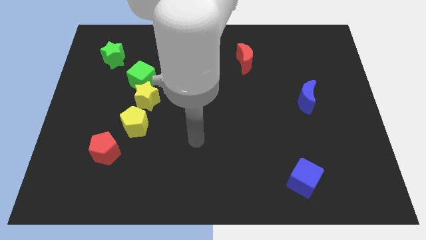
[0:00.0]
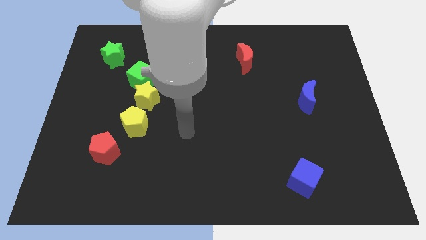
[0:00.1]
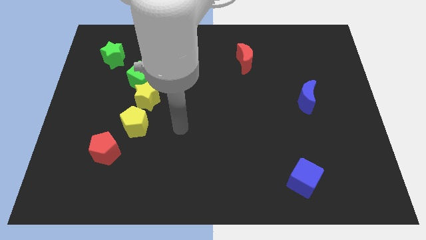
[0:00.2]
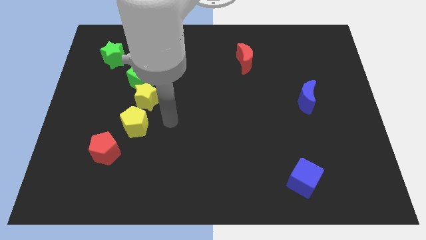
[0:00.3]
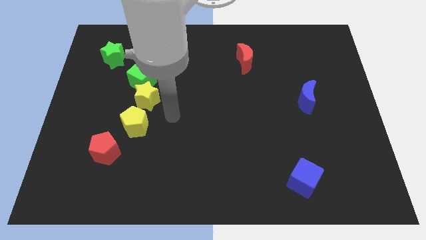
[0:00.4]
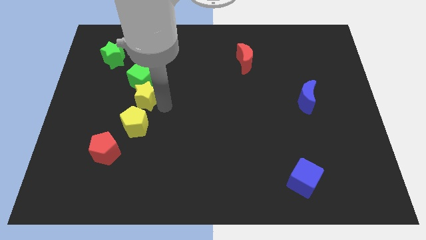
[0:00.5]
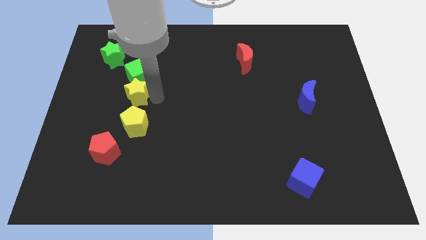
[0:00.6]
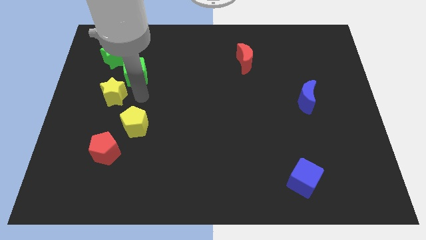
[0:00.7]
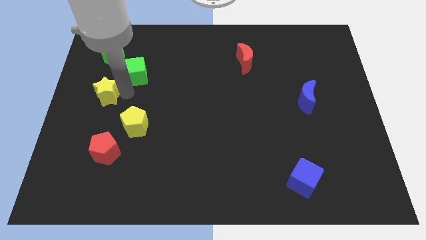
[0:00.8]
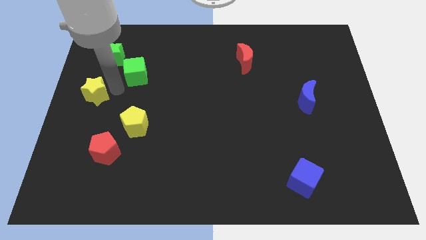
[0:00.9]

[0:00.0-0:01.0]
move the green cube away from the yellow star

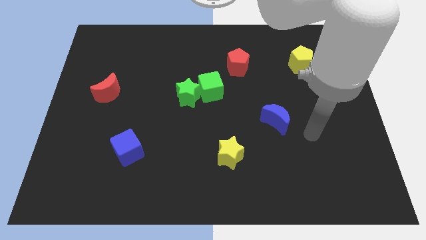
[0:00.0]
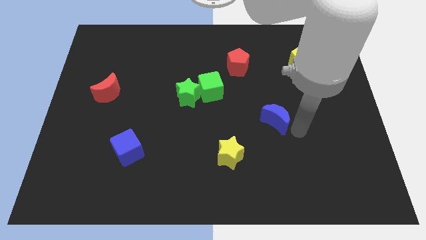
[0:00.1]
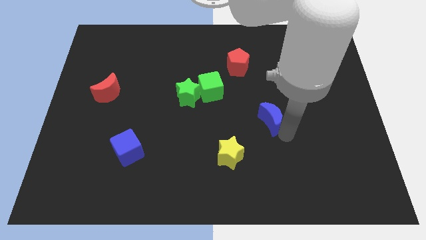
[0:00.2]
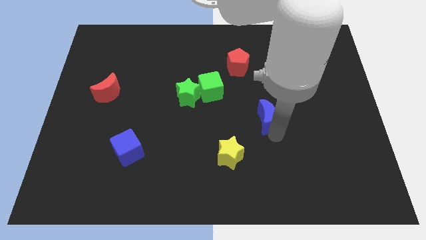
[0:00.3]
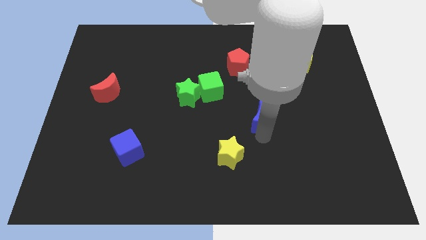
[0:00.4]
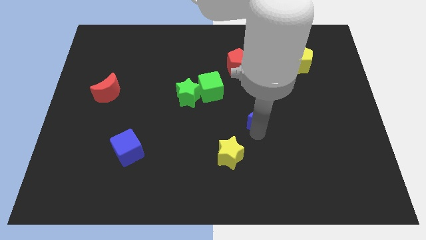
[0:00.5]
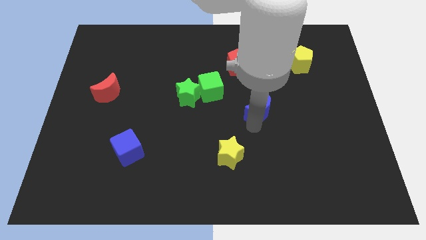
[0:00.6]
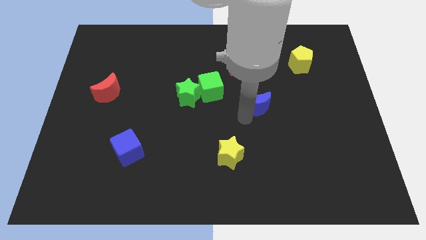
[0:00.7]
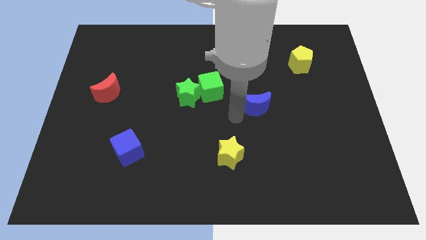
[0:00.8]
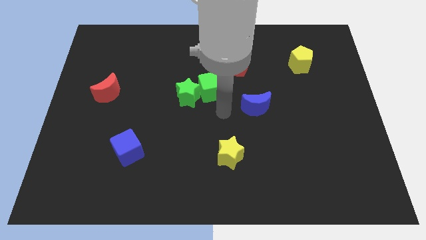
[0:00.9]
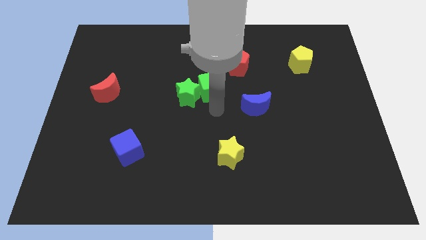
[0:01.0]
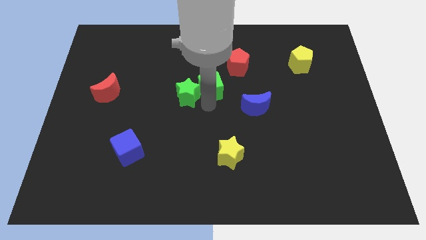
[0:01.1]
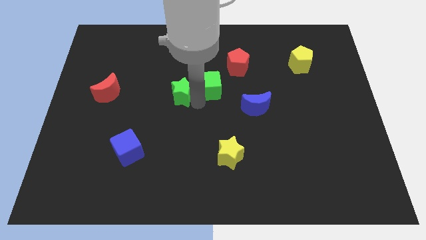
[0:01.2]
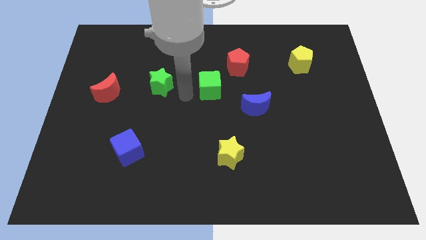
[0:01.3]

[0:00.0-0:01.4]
pull the green cube apart from the green star

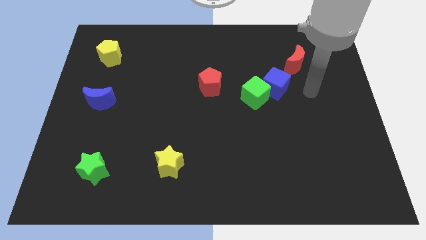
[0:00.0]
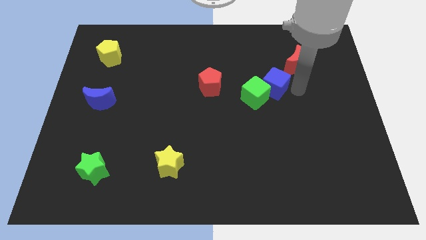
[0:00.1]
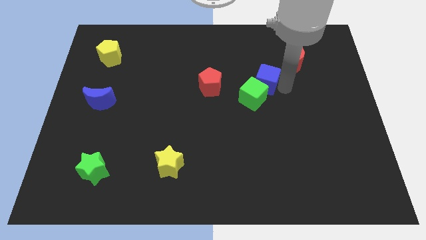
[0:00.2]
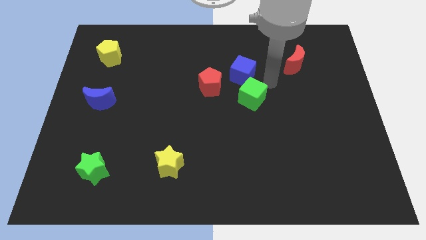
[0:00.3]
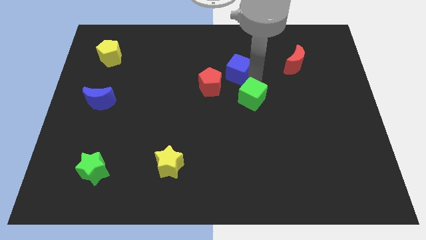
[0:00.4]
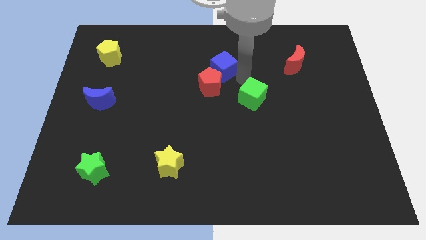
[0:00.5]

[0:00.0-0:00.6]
move the green cube away from the blue cube

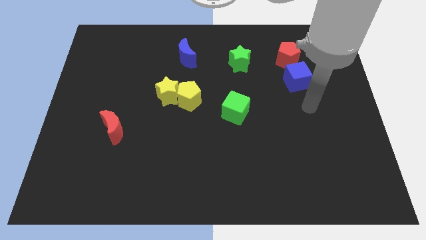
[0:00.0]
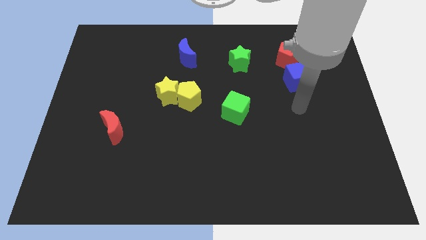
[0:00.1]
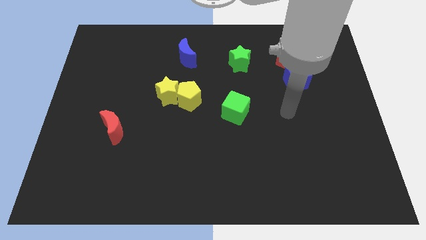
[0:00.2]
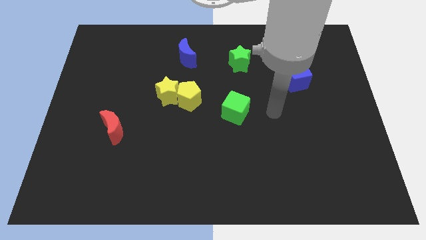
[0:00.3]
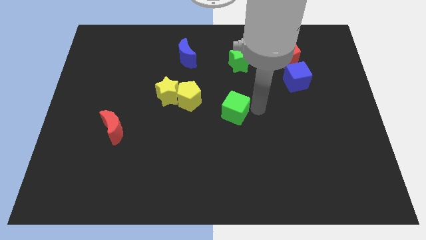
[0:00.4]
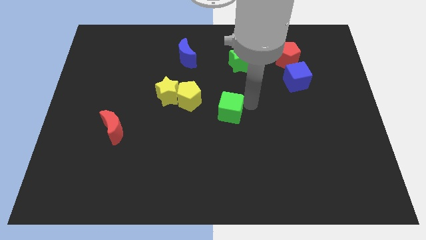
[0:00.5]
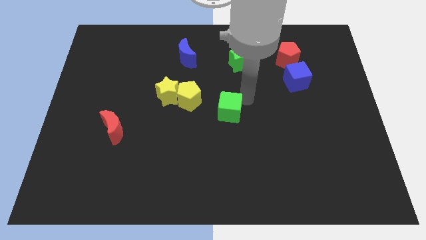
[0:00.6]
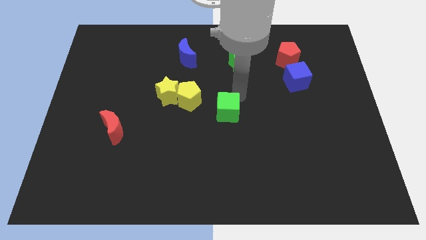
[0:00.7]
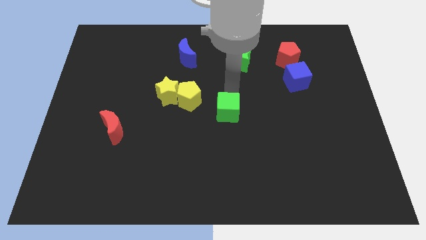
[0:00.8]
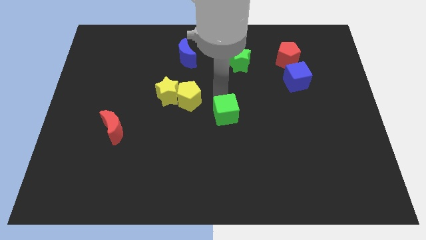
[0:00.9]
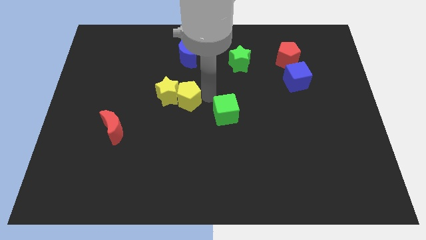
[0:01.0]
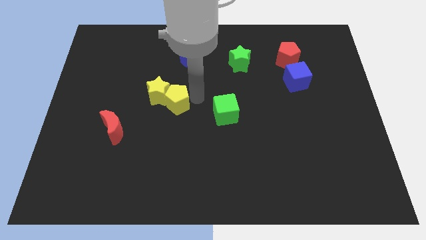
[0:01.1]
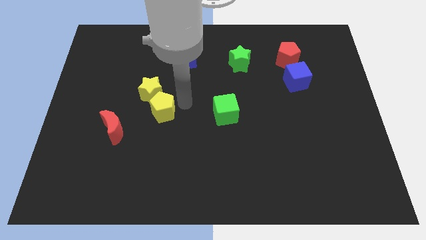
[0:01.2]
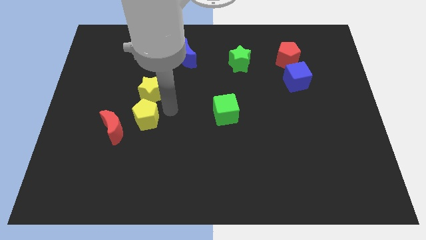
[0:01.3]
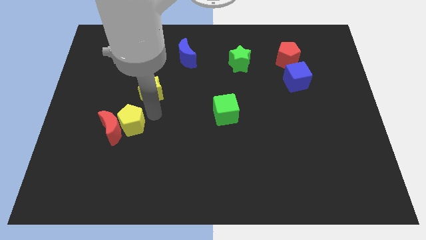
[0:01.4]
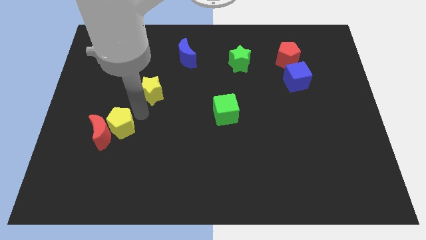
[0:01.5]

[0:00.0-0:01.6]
pull the yellow star apart from the yellow pentagon

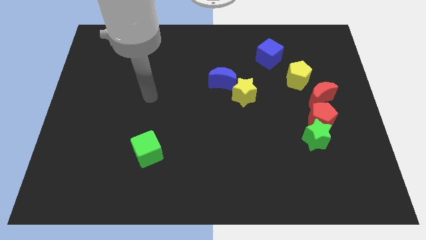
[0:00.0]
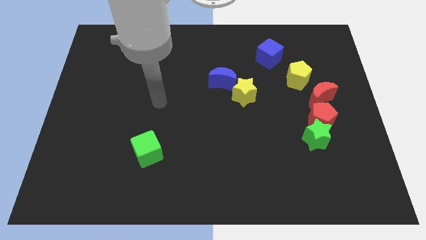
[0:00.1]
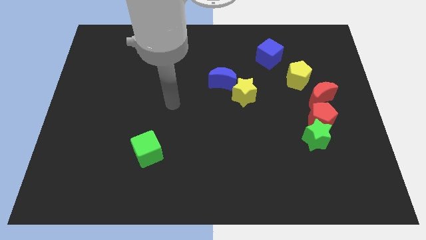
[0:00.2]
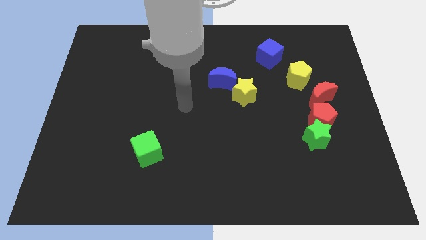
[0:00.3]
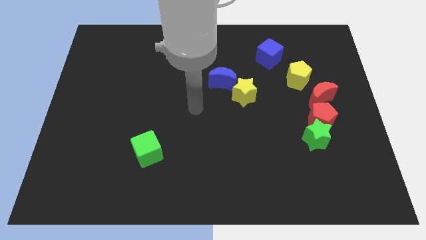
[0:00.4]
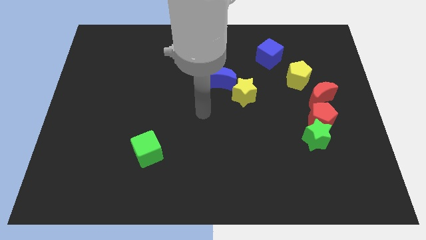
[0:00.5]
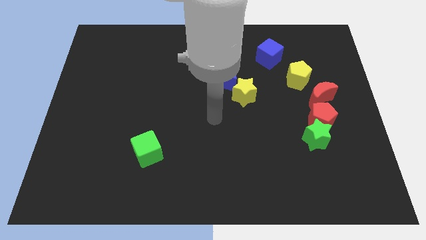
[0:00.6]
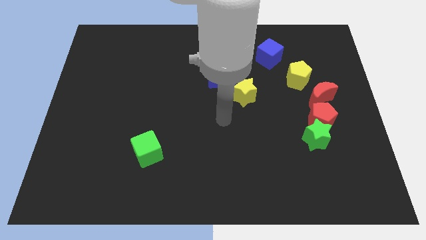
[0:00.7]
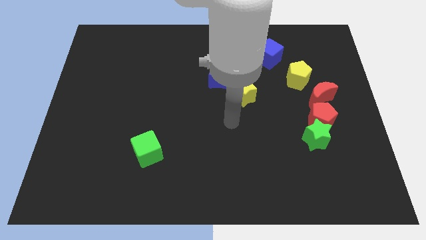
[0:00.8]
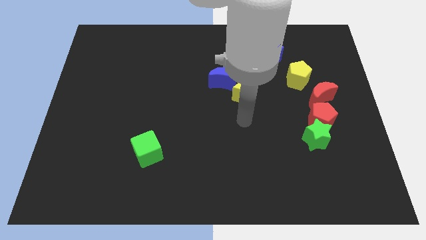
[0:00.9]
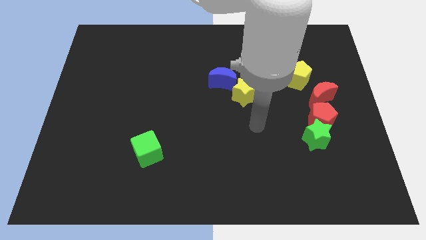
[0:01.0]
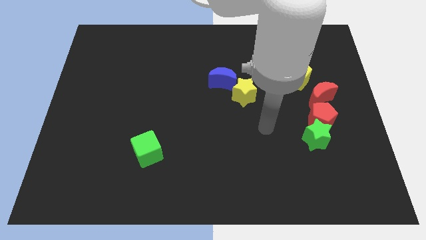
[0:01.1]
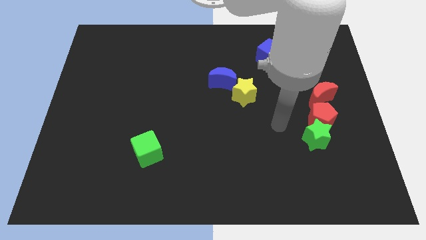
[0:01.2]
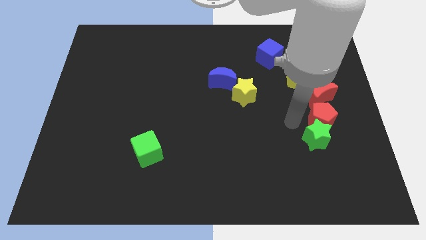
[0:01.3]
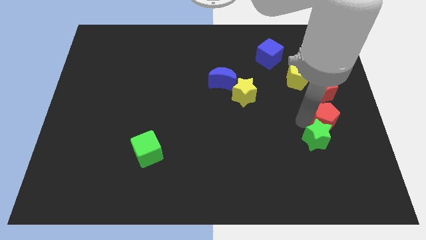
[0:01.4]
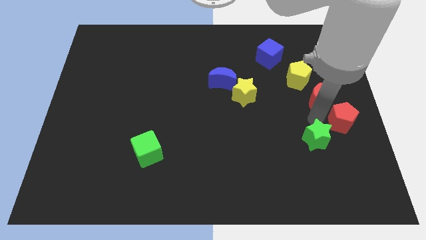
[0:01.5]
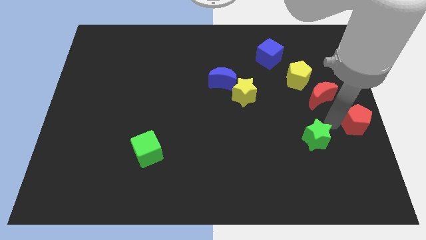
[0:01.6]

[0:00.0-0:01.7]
pull the green star apart from the red pentagon

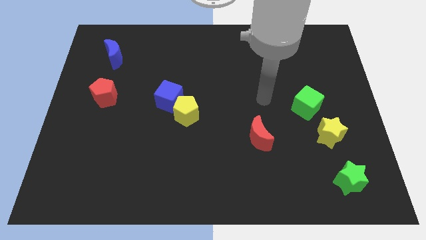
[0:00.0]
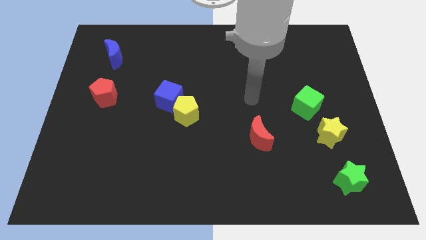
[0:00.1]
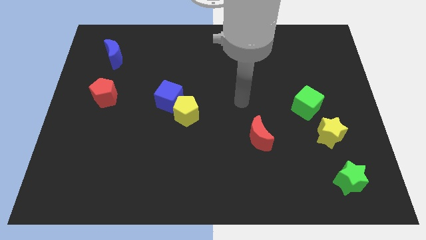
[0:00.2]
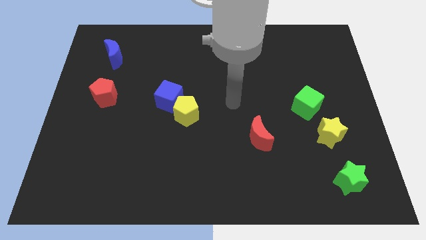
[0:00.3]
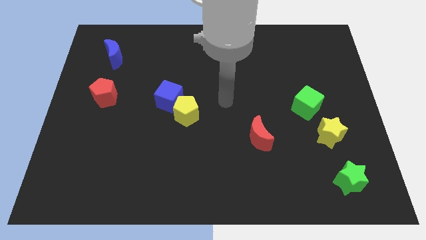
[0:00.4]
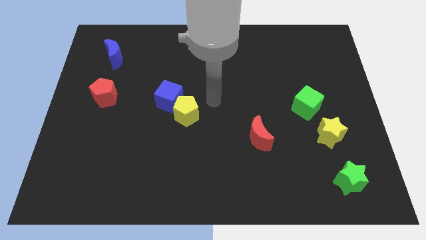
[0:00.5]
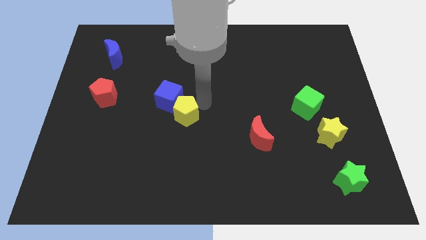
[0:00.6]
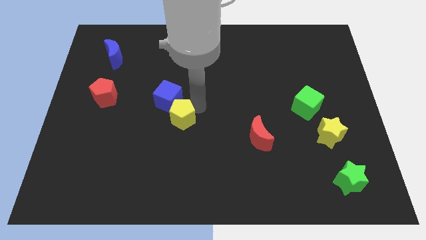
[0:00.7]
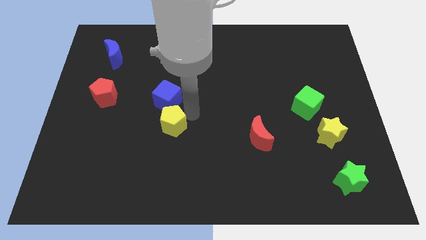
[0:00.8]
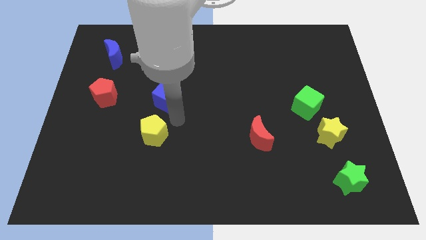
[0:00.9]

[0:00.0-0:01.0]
separate the blue cube from the yellow pentagon

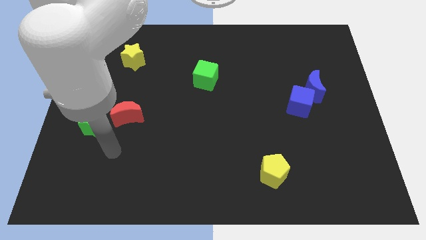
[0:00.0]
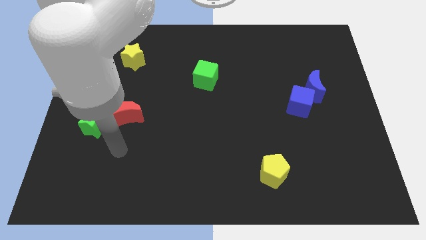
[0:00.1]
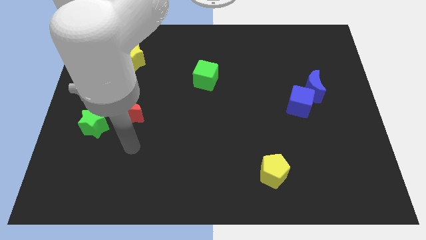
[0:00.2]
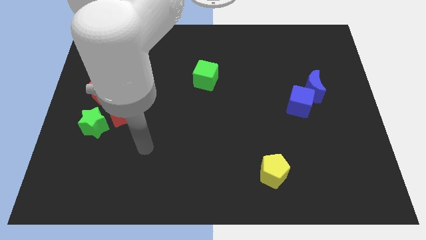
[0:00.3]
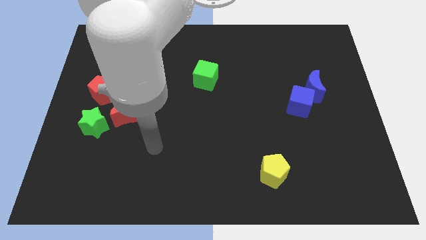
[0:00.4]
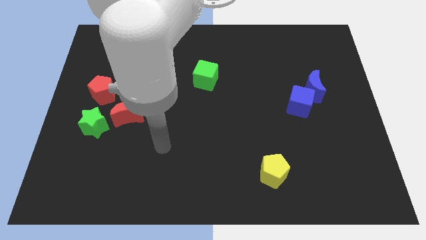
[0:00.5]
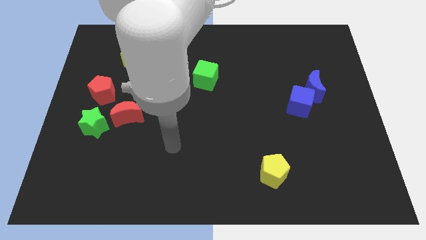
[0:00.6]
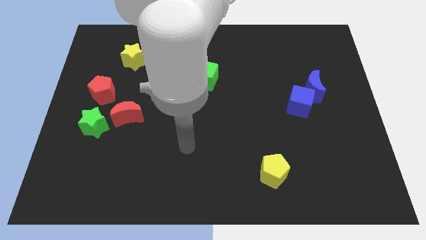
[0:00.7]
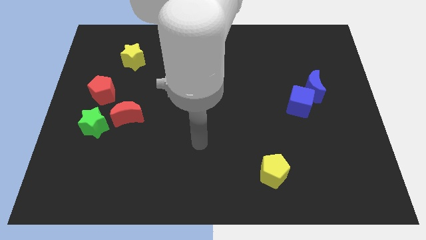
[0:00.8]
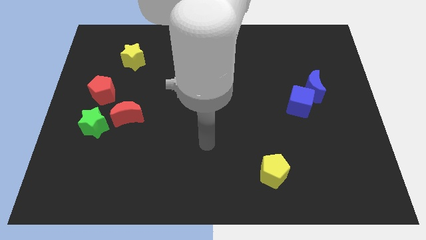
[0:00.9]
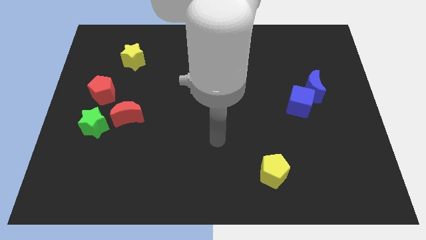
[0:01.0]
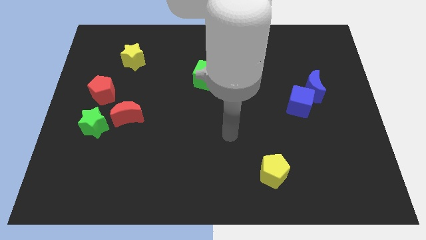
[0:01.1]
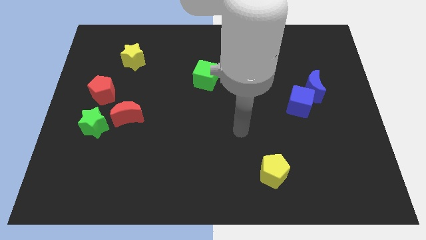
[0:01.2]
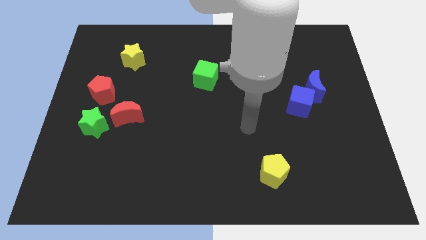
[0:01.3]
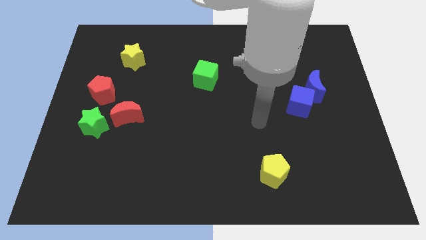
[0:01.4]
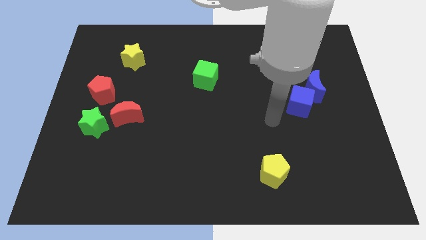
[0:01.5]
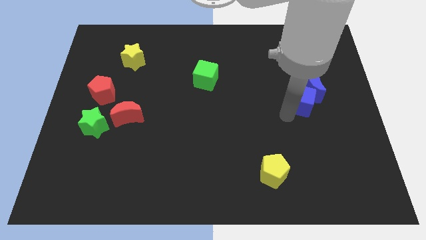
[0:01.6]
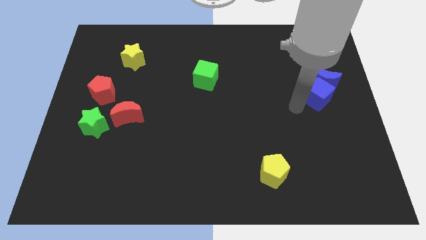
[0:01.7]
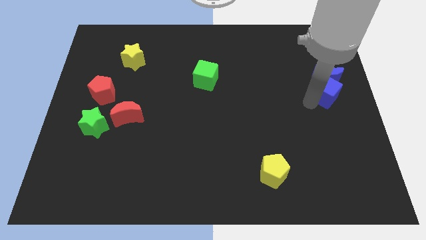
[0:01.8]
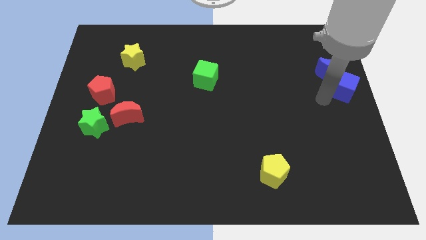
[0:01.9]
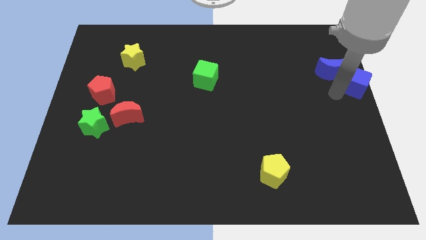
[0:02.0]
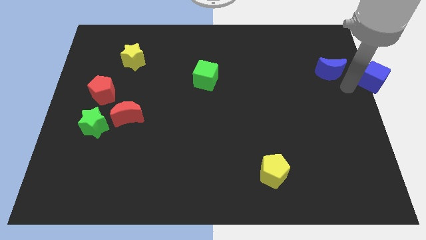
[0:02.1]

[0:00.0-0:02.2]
move the blue moon away from the blue cube

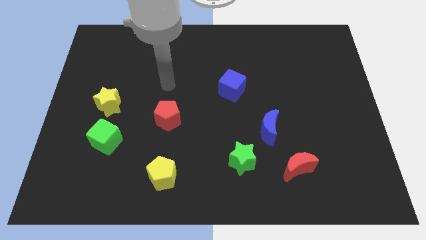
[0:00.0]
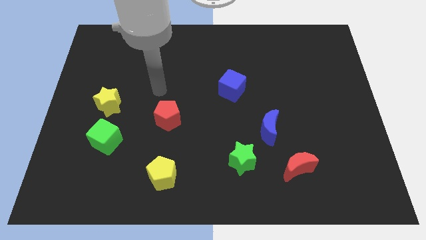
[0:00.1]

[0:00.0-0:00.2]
separate the green cube from the yellow star
